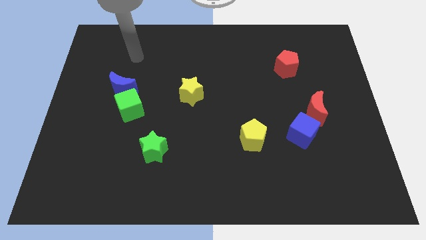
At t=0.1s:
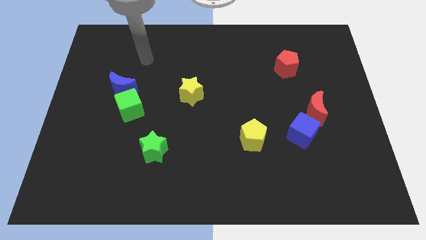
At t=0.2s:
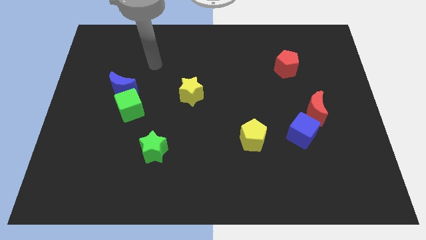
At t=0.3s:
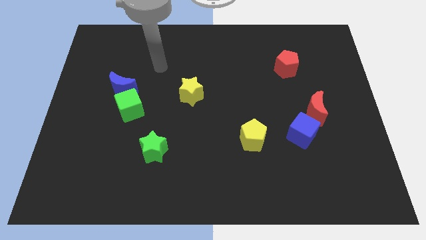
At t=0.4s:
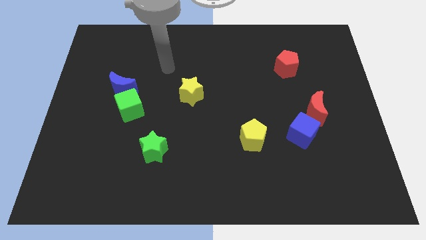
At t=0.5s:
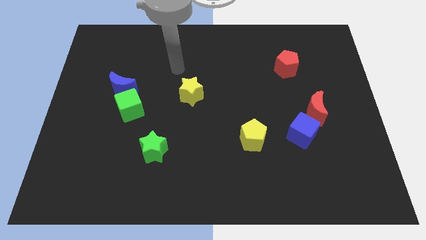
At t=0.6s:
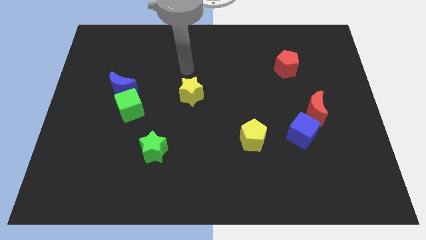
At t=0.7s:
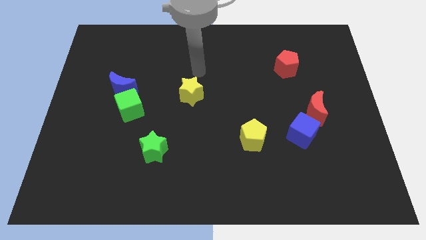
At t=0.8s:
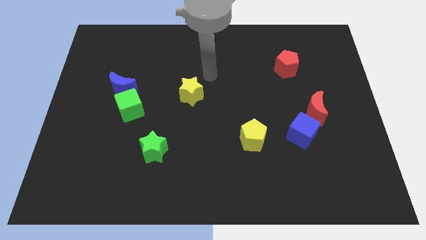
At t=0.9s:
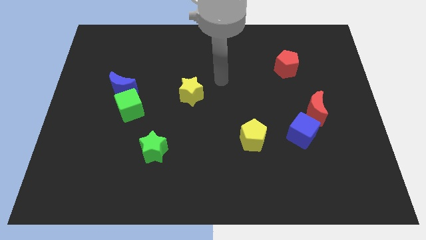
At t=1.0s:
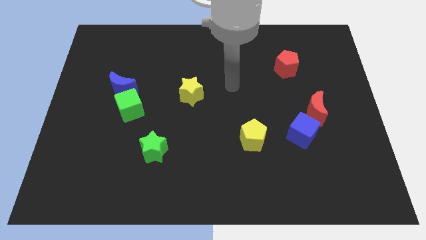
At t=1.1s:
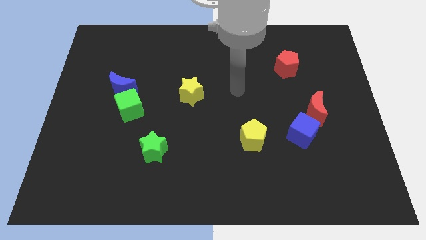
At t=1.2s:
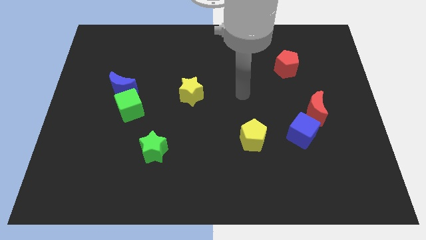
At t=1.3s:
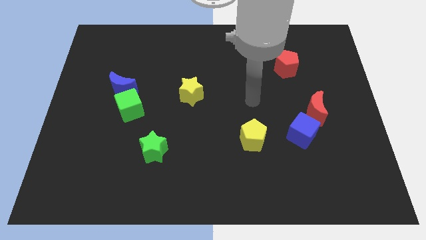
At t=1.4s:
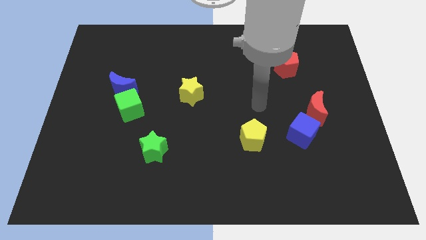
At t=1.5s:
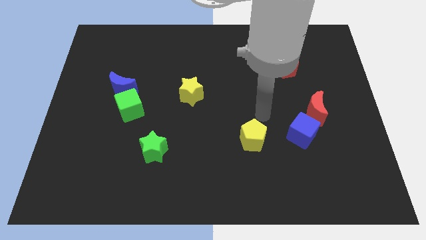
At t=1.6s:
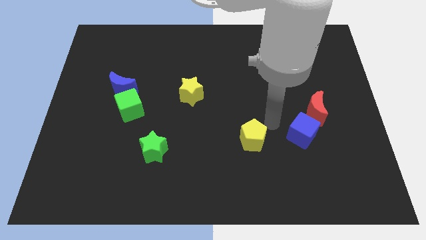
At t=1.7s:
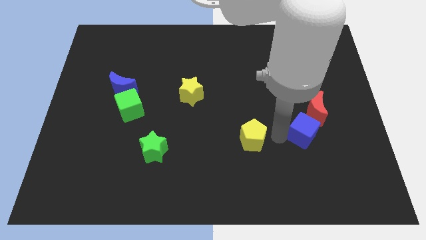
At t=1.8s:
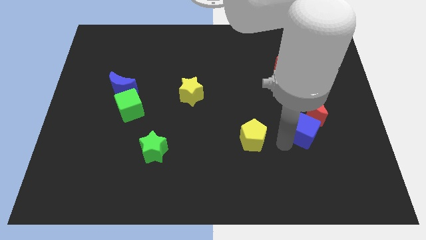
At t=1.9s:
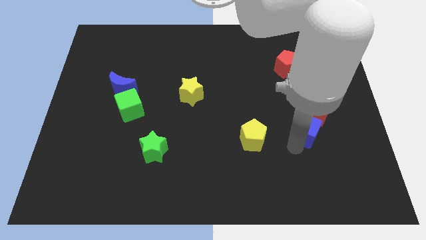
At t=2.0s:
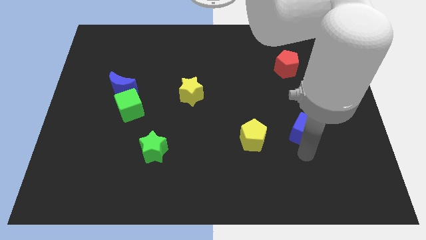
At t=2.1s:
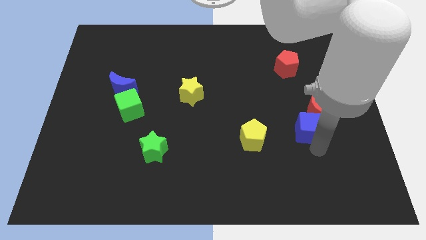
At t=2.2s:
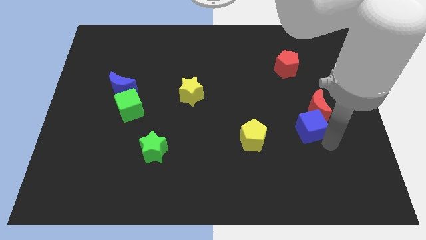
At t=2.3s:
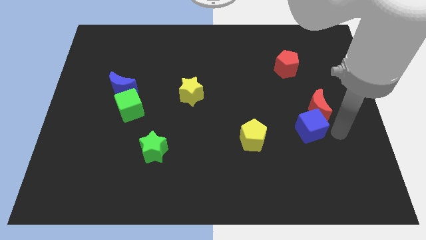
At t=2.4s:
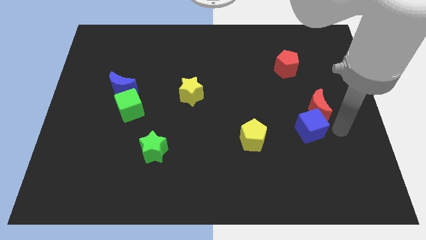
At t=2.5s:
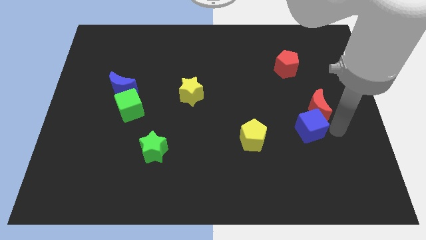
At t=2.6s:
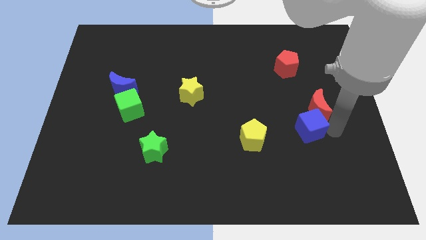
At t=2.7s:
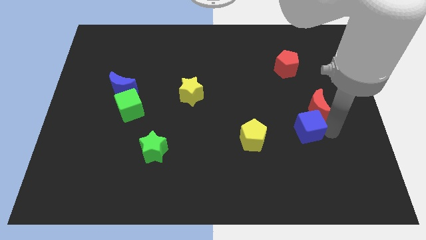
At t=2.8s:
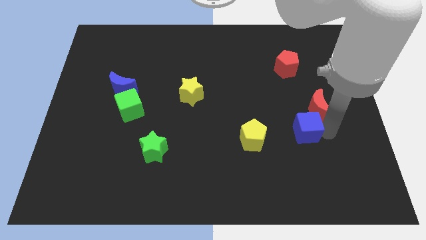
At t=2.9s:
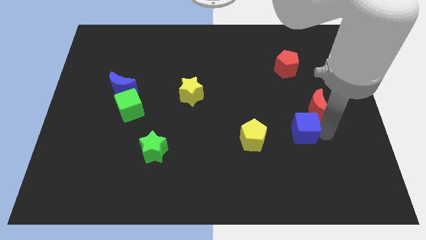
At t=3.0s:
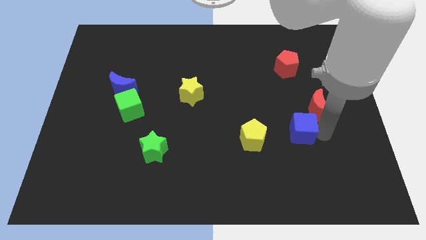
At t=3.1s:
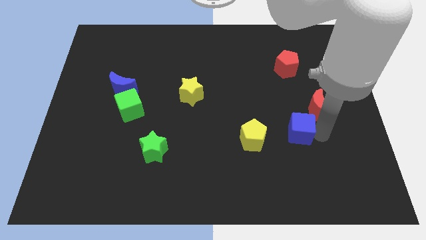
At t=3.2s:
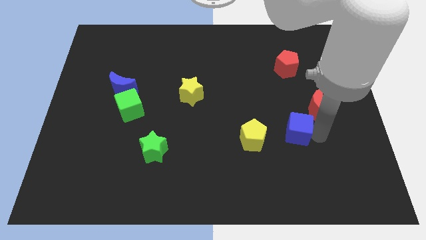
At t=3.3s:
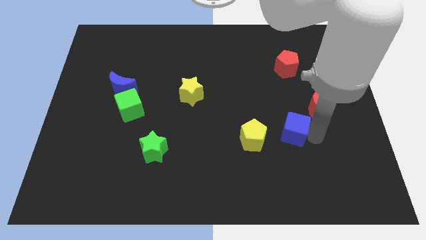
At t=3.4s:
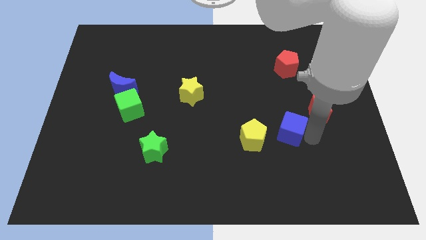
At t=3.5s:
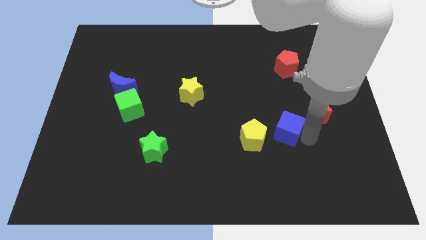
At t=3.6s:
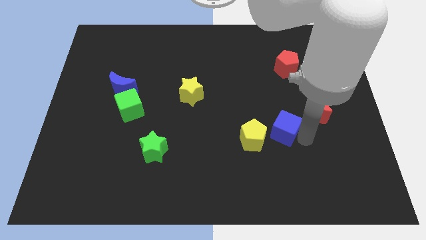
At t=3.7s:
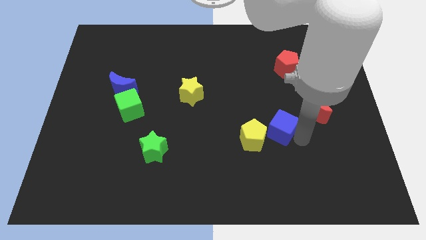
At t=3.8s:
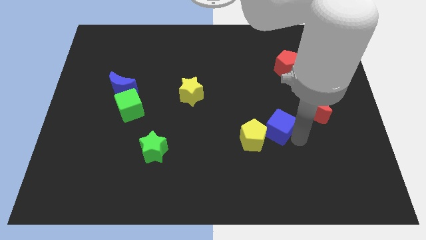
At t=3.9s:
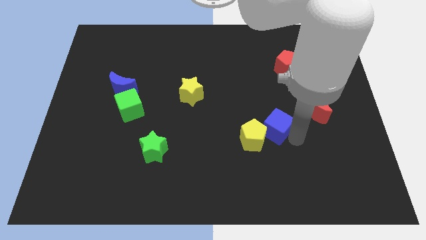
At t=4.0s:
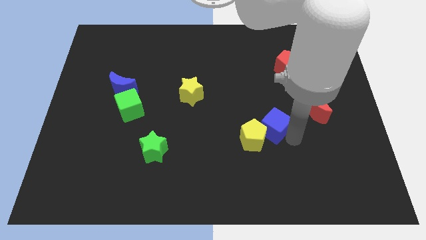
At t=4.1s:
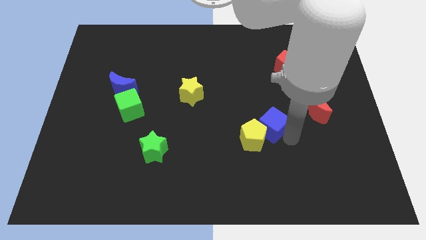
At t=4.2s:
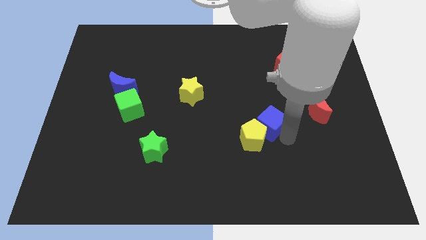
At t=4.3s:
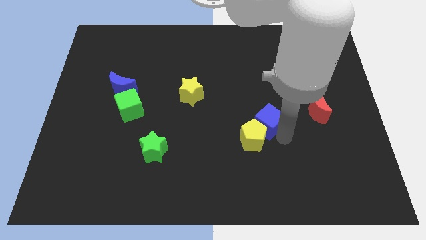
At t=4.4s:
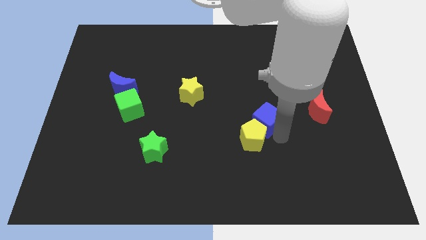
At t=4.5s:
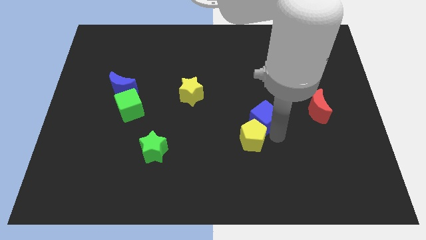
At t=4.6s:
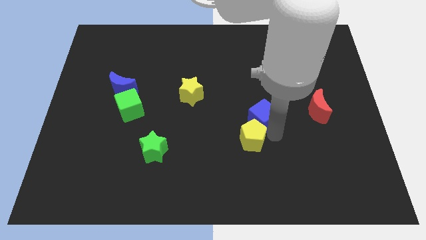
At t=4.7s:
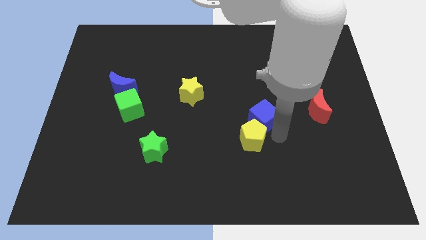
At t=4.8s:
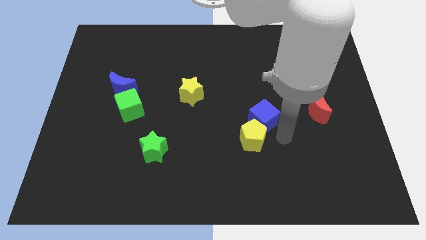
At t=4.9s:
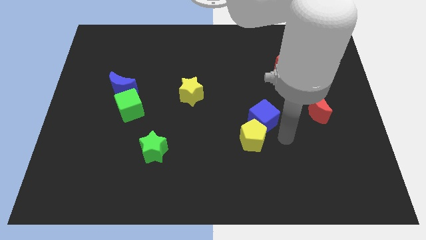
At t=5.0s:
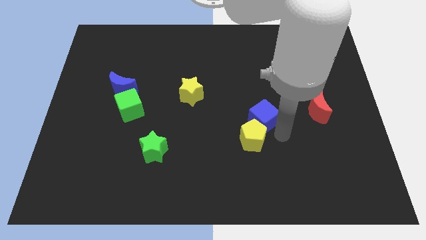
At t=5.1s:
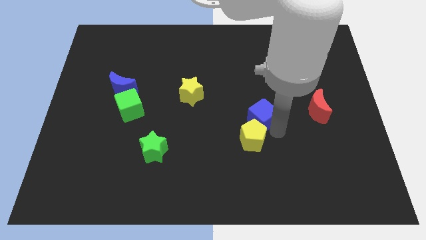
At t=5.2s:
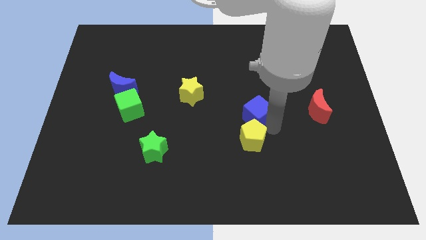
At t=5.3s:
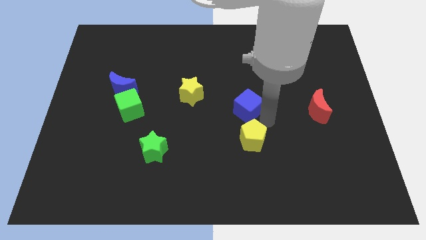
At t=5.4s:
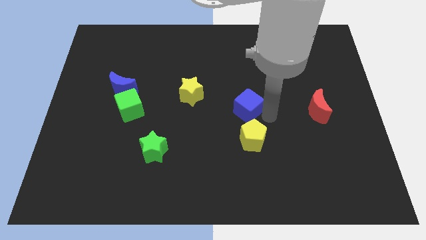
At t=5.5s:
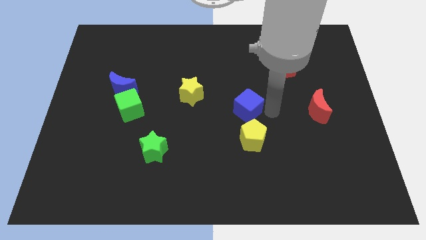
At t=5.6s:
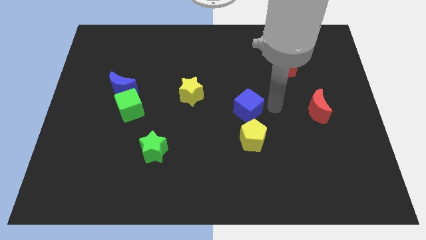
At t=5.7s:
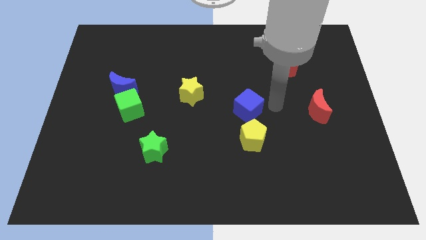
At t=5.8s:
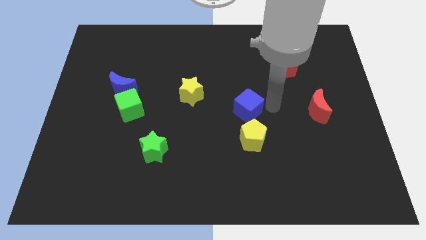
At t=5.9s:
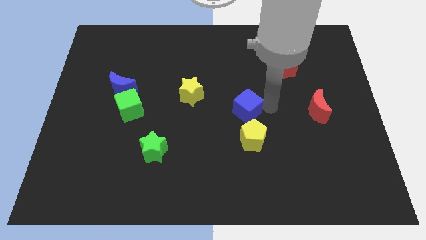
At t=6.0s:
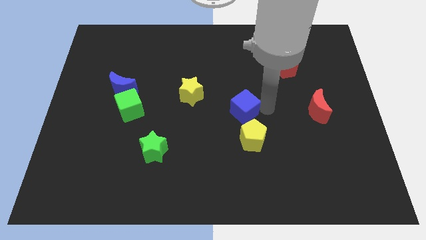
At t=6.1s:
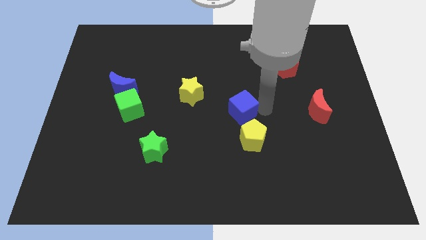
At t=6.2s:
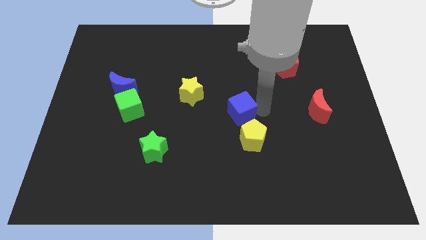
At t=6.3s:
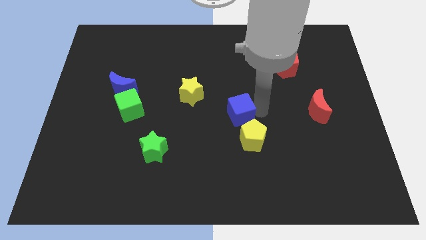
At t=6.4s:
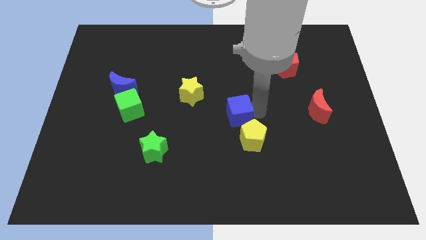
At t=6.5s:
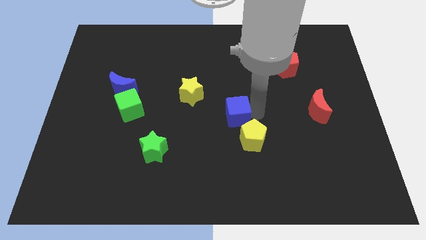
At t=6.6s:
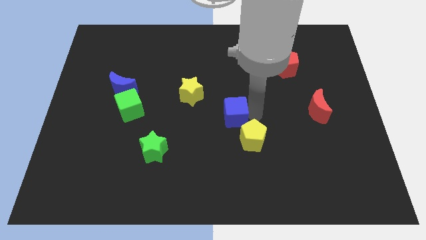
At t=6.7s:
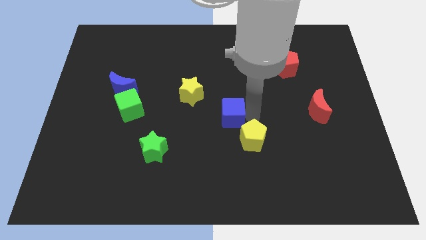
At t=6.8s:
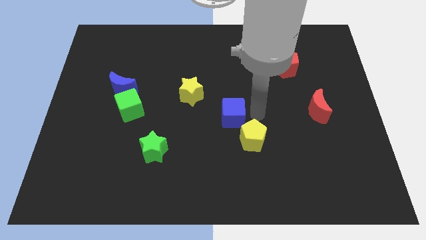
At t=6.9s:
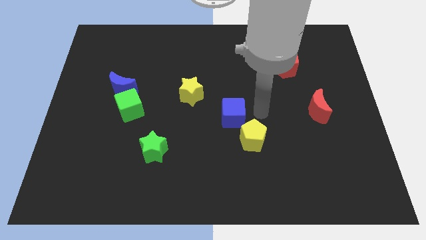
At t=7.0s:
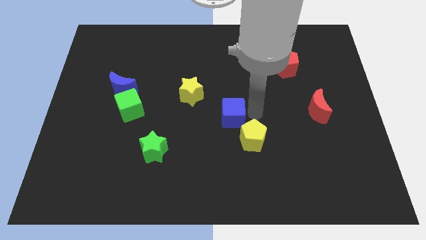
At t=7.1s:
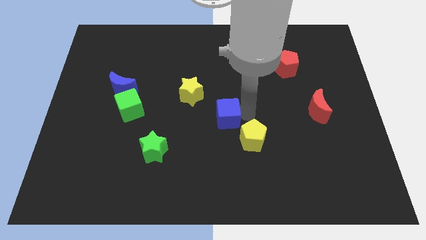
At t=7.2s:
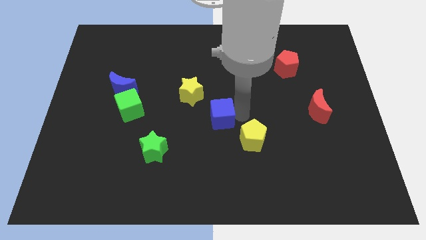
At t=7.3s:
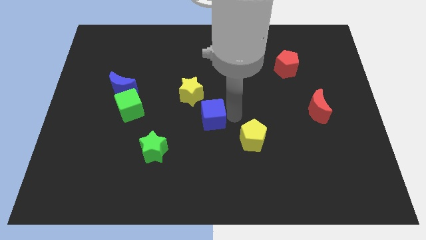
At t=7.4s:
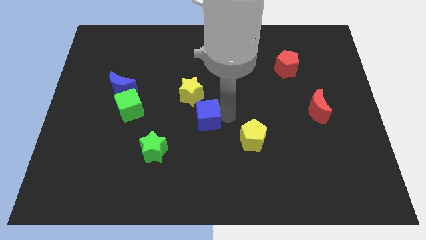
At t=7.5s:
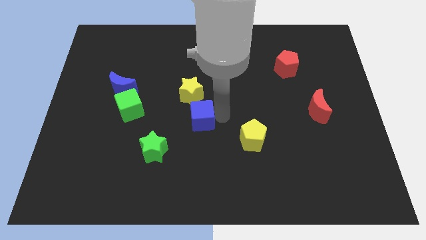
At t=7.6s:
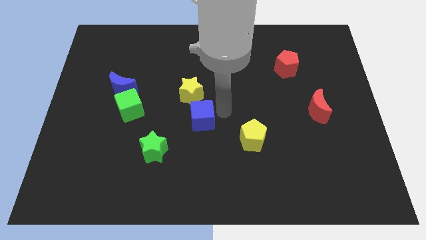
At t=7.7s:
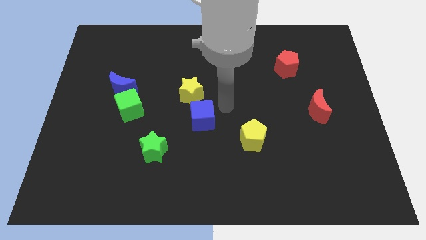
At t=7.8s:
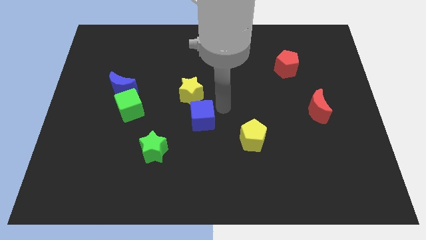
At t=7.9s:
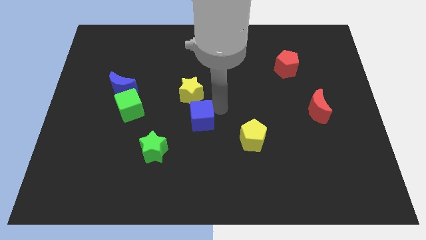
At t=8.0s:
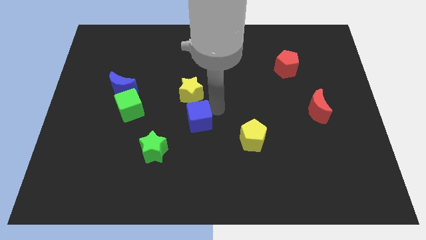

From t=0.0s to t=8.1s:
move the blue cube diagonally up and to the right of the green star
